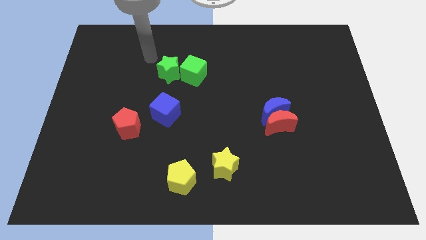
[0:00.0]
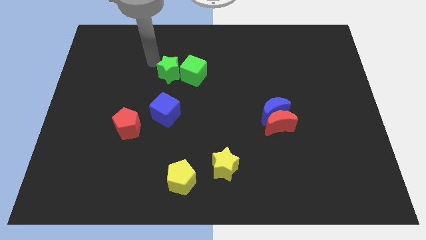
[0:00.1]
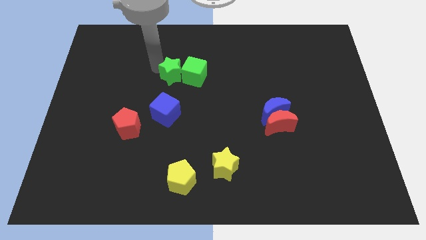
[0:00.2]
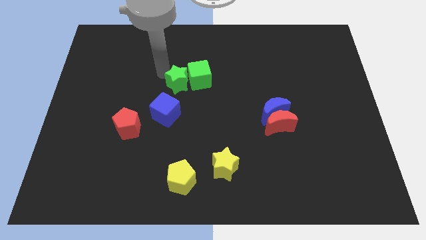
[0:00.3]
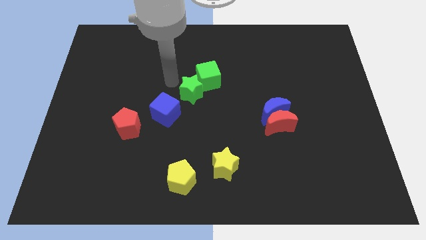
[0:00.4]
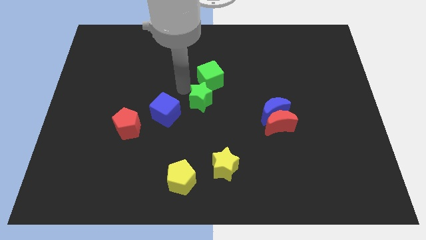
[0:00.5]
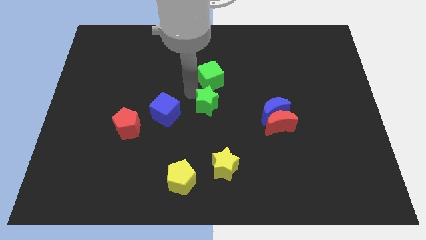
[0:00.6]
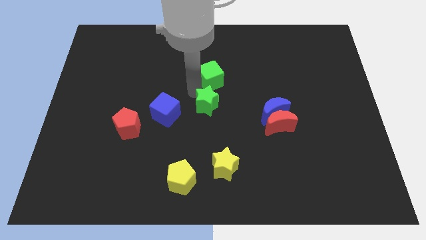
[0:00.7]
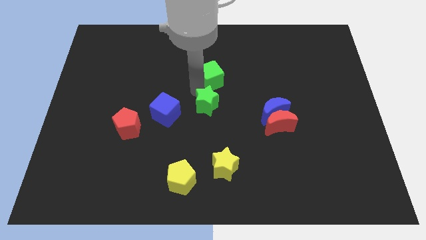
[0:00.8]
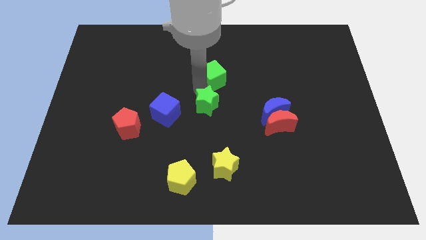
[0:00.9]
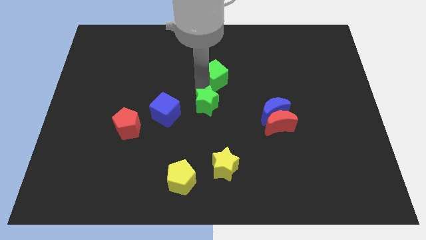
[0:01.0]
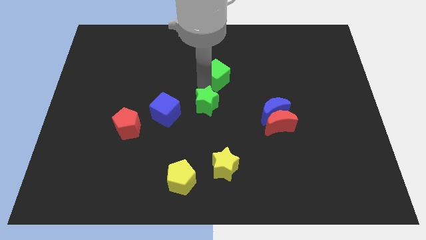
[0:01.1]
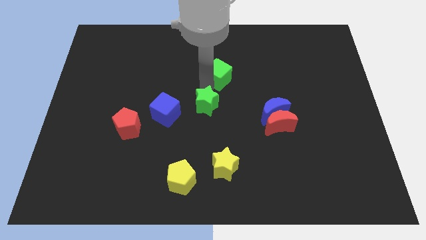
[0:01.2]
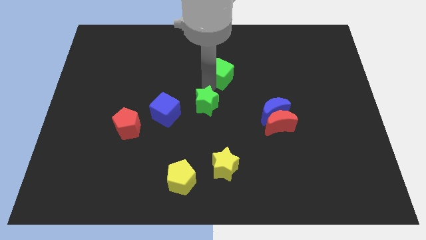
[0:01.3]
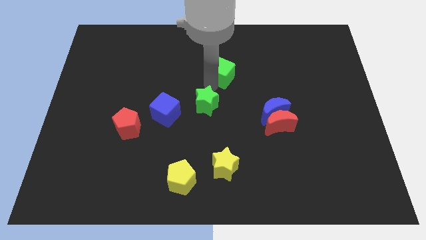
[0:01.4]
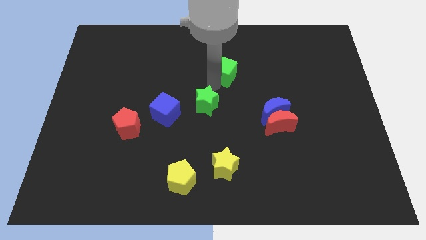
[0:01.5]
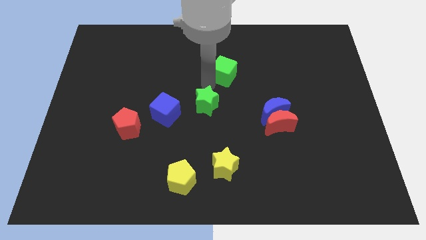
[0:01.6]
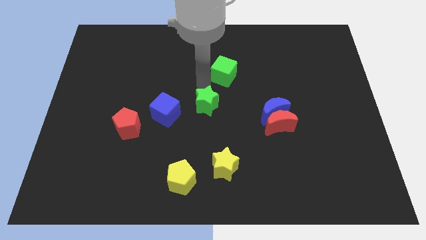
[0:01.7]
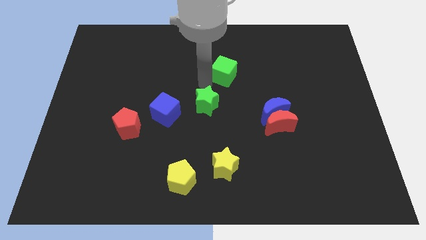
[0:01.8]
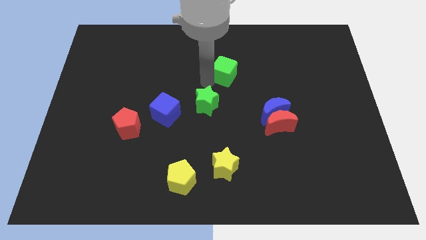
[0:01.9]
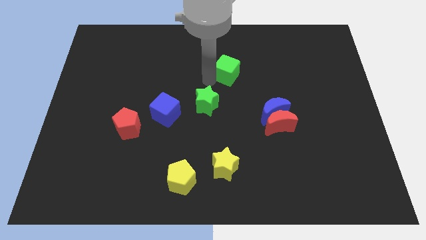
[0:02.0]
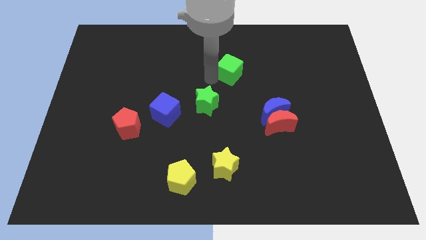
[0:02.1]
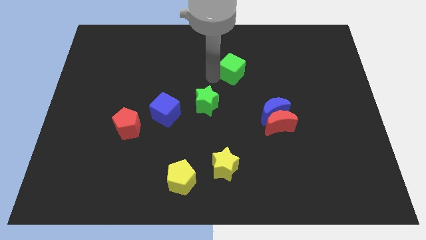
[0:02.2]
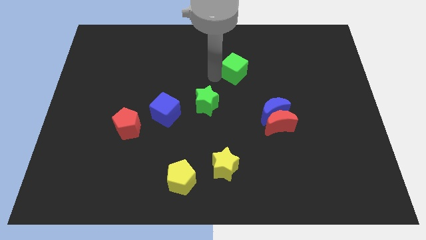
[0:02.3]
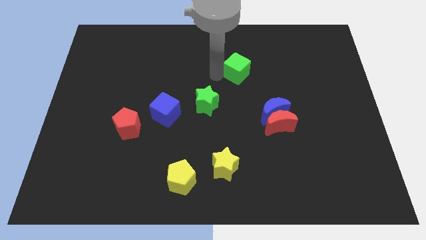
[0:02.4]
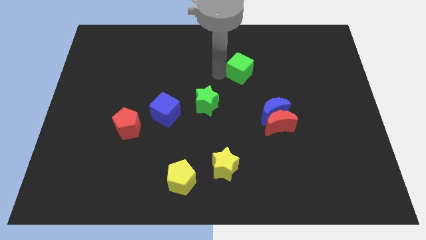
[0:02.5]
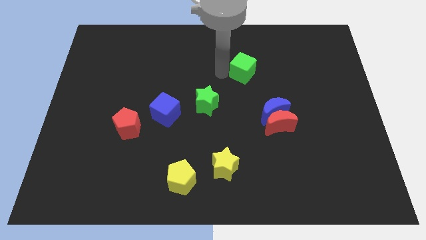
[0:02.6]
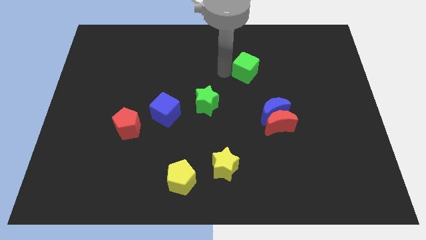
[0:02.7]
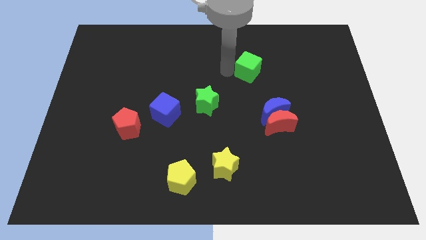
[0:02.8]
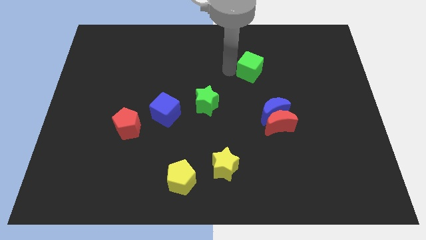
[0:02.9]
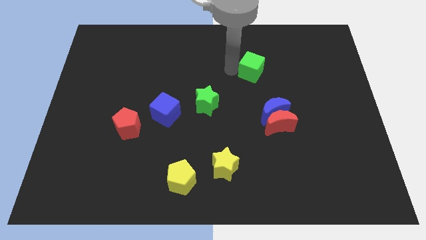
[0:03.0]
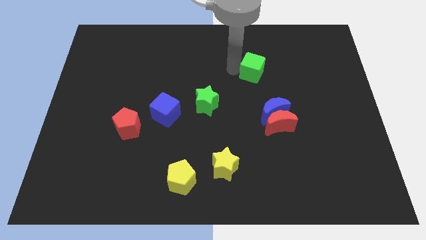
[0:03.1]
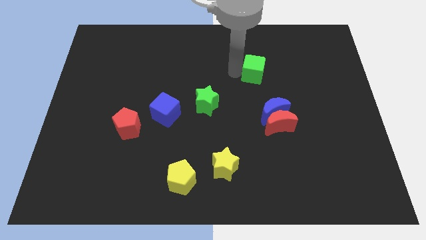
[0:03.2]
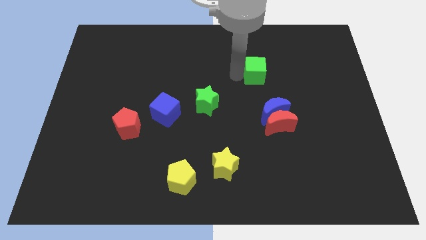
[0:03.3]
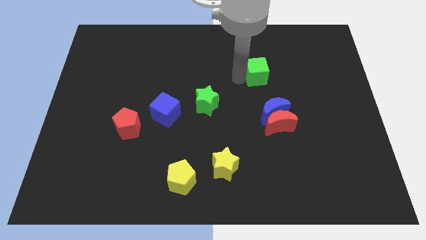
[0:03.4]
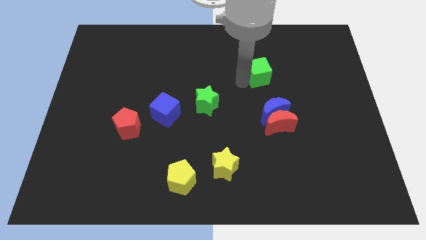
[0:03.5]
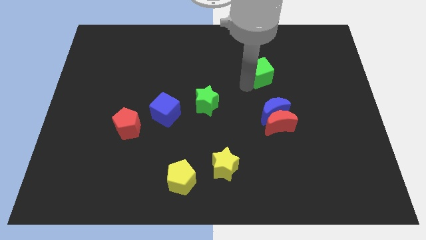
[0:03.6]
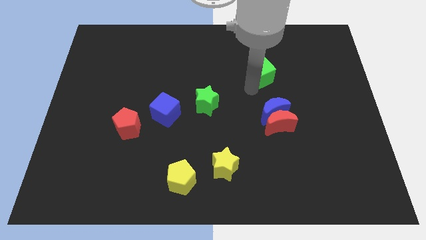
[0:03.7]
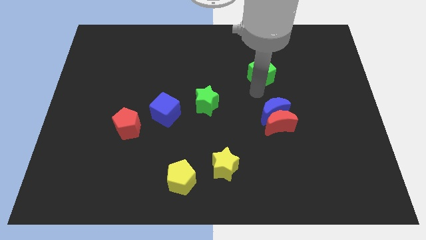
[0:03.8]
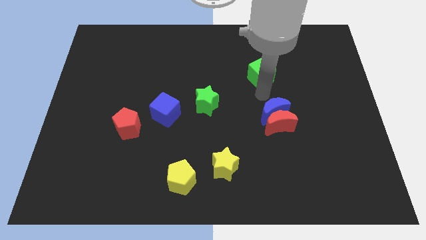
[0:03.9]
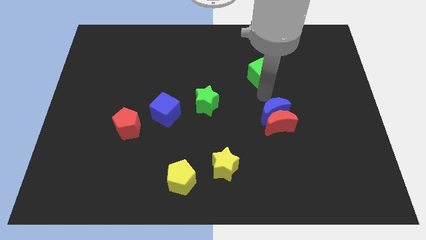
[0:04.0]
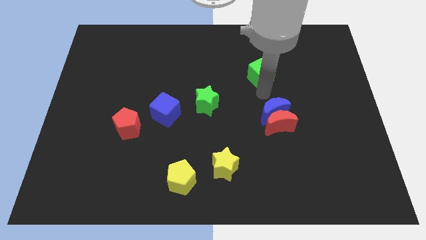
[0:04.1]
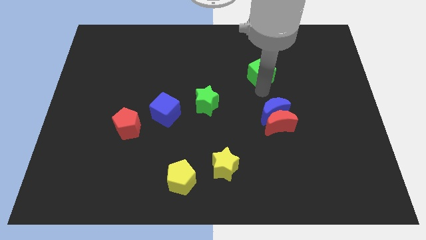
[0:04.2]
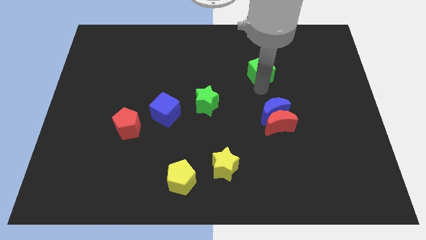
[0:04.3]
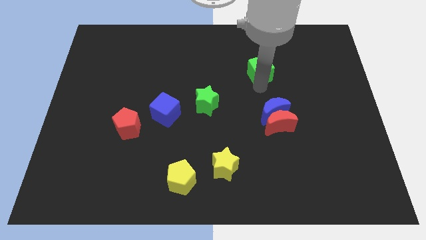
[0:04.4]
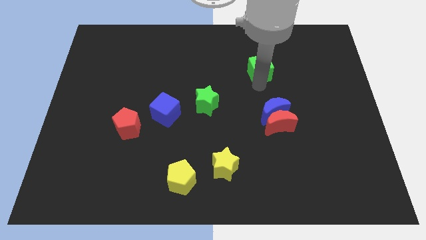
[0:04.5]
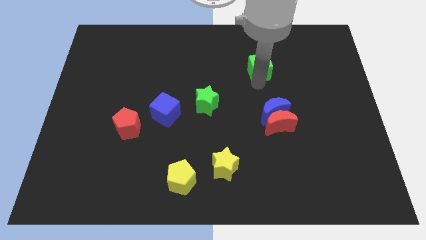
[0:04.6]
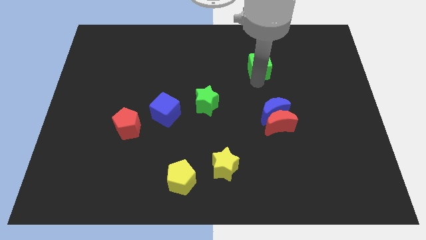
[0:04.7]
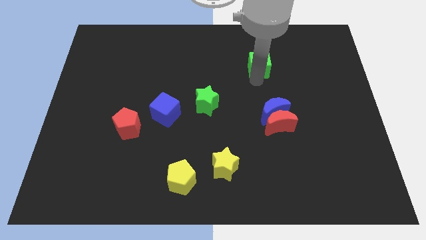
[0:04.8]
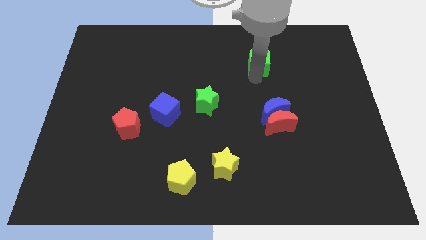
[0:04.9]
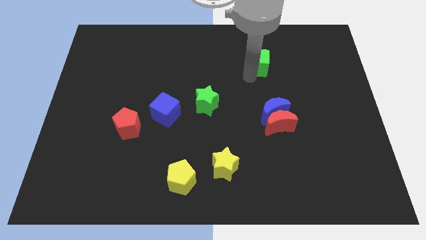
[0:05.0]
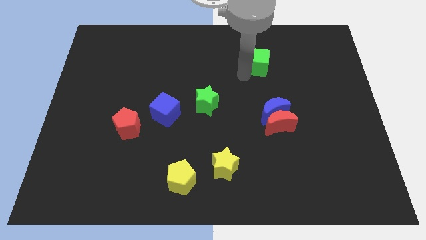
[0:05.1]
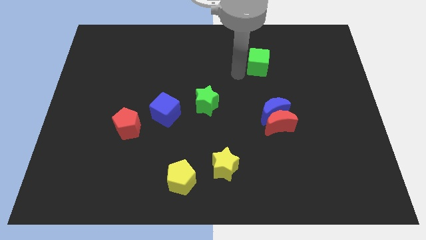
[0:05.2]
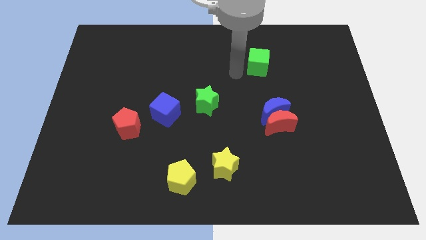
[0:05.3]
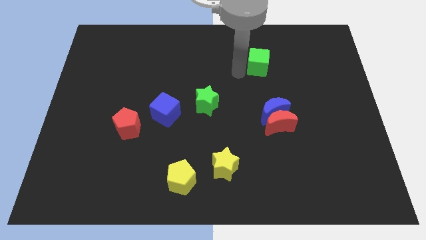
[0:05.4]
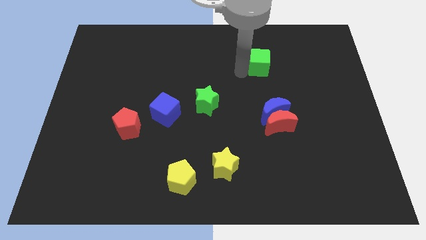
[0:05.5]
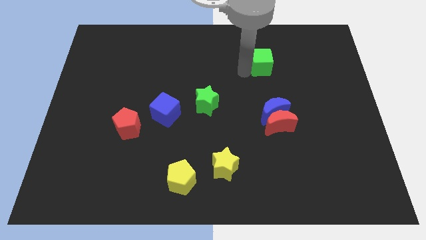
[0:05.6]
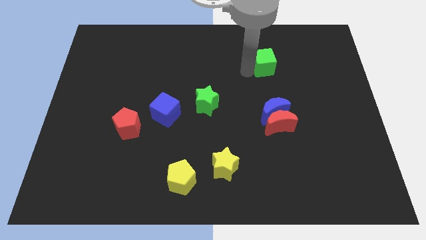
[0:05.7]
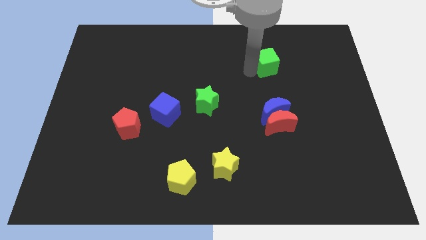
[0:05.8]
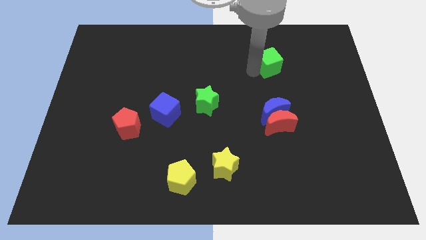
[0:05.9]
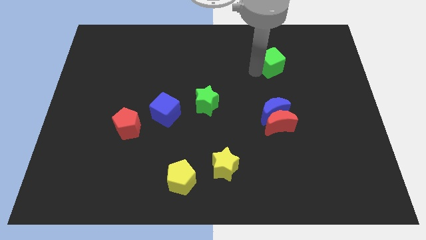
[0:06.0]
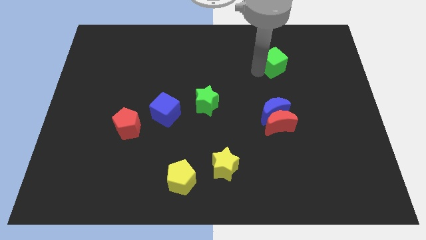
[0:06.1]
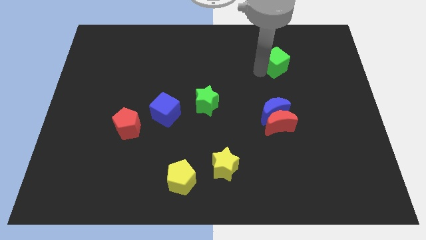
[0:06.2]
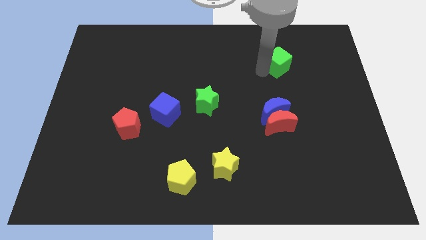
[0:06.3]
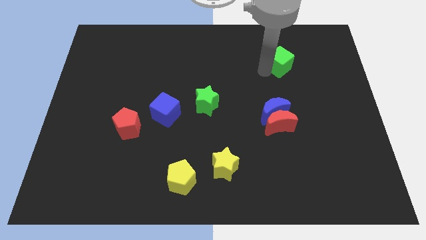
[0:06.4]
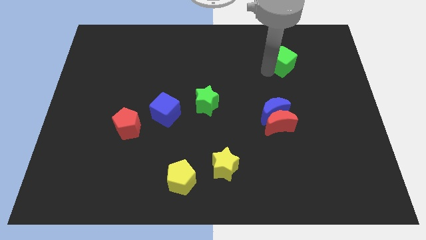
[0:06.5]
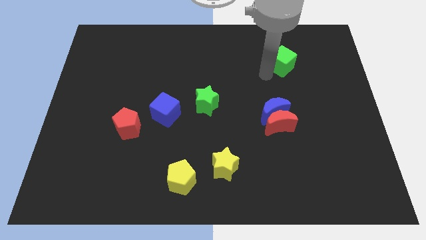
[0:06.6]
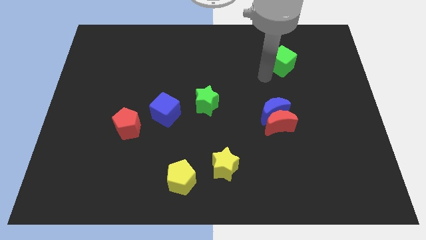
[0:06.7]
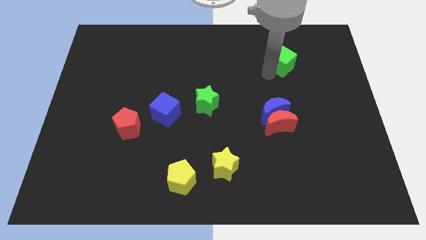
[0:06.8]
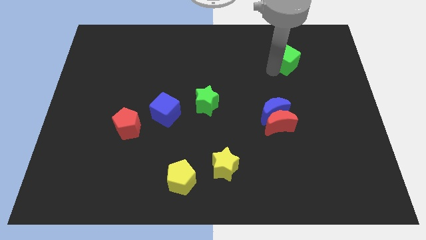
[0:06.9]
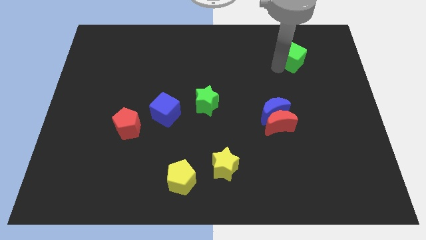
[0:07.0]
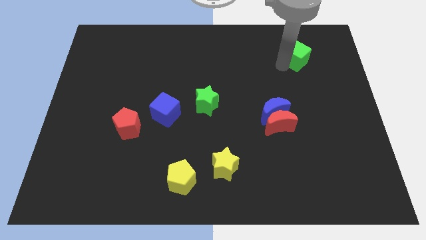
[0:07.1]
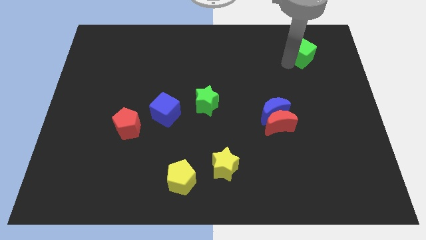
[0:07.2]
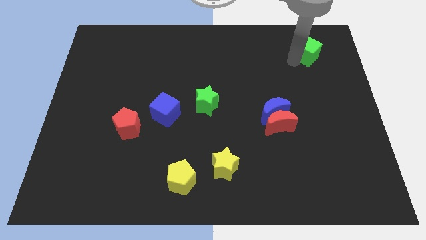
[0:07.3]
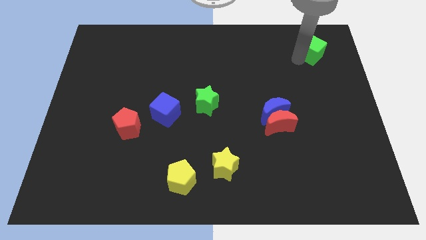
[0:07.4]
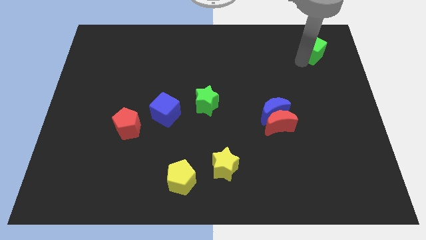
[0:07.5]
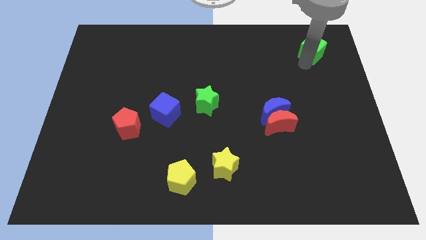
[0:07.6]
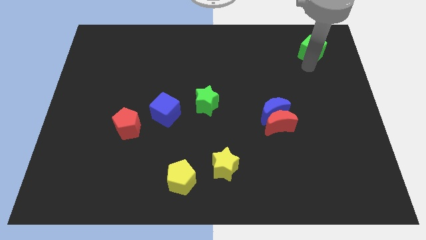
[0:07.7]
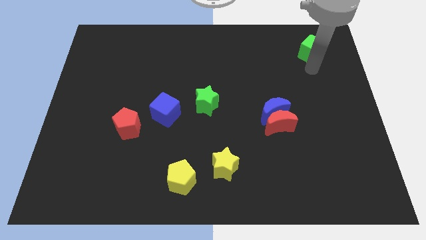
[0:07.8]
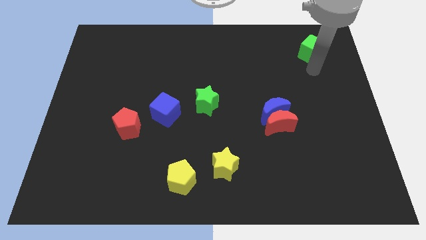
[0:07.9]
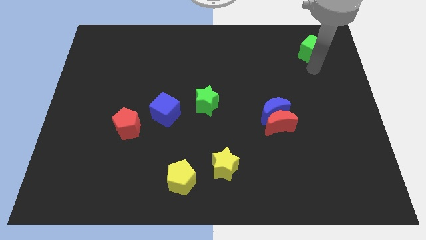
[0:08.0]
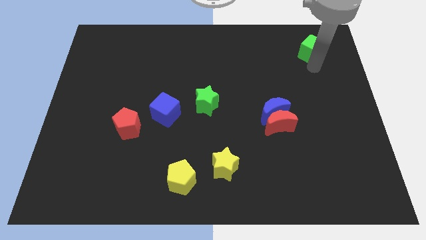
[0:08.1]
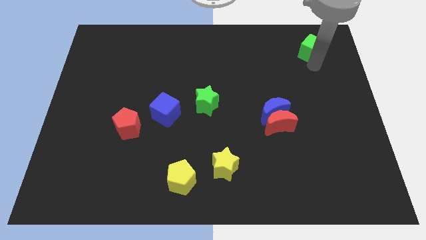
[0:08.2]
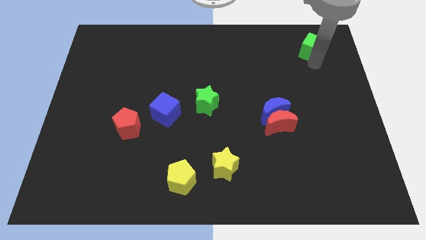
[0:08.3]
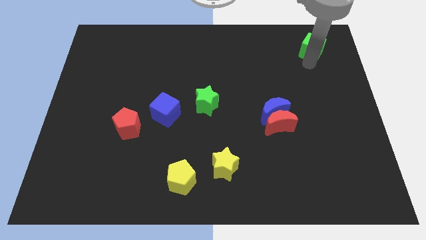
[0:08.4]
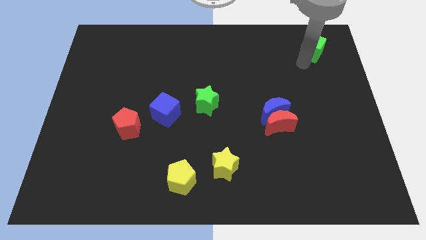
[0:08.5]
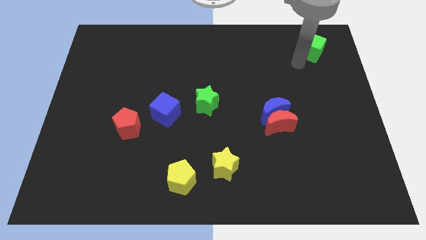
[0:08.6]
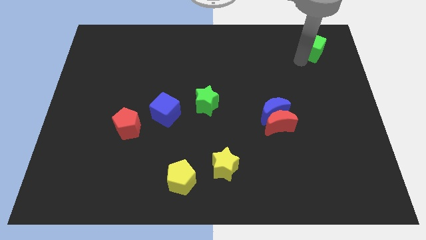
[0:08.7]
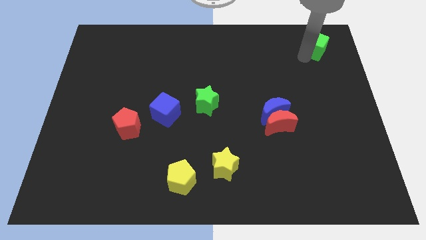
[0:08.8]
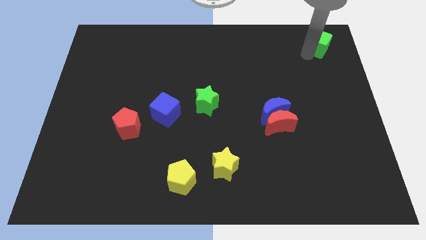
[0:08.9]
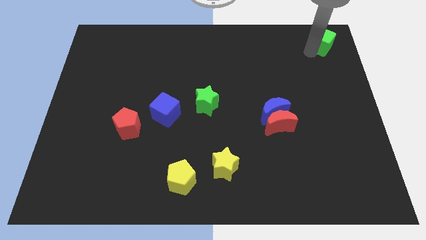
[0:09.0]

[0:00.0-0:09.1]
slide the green cube to the top right
